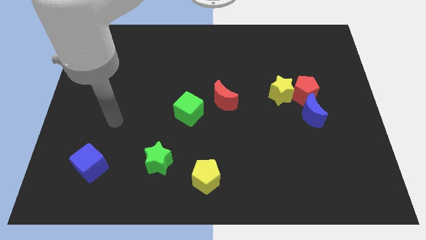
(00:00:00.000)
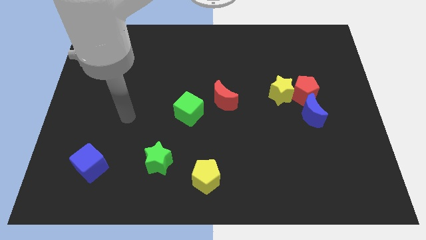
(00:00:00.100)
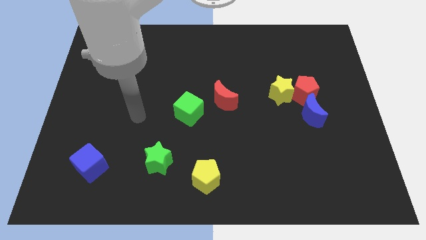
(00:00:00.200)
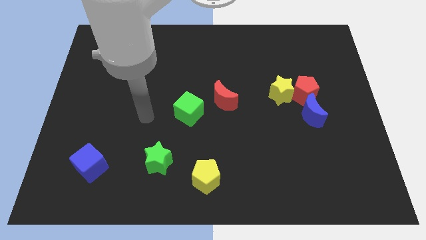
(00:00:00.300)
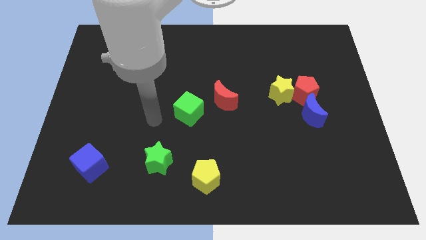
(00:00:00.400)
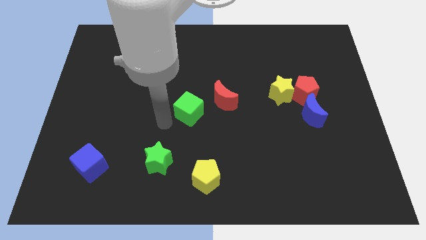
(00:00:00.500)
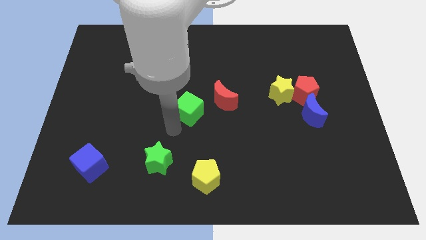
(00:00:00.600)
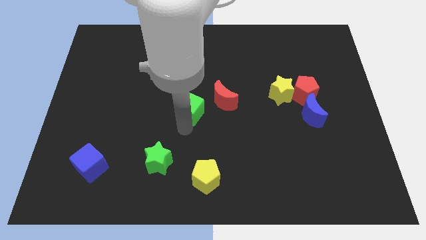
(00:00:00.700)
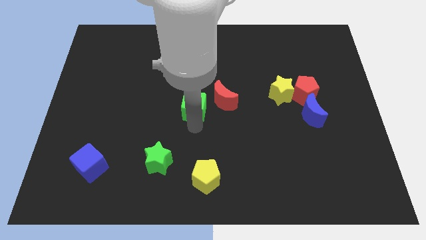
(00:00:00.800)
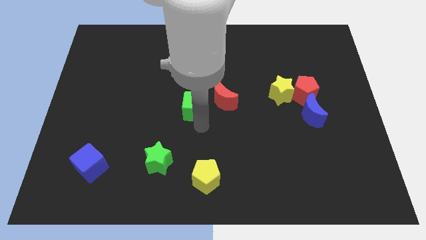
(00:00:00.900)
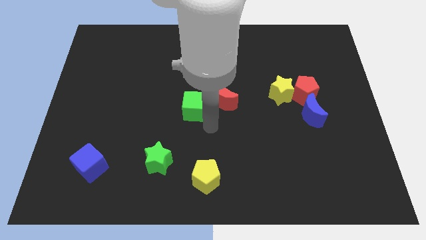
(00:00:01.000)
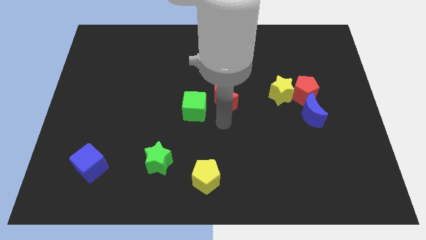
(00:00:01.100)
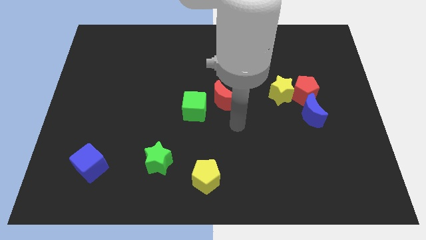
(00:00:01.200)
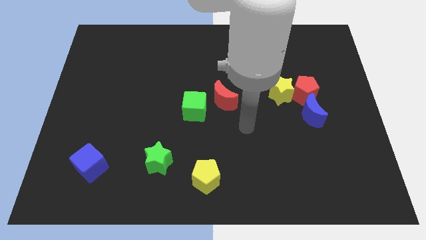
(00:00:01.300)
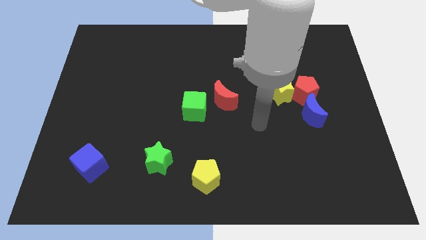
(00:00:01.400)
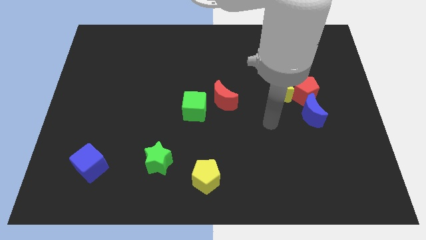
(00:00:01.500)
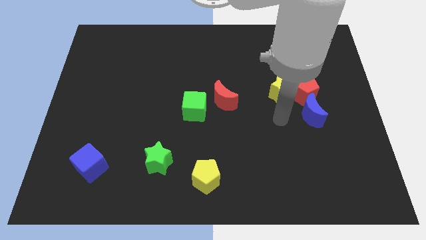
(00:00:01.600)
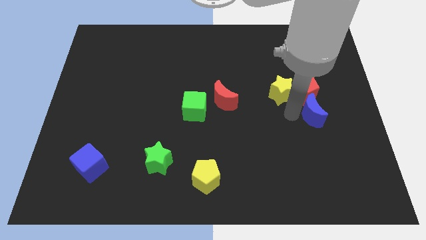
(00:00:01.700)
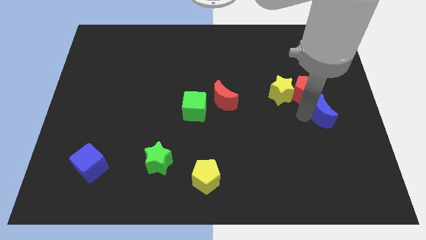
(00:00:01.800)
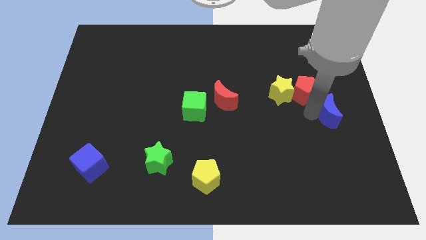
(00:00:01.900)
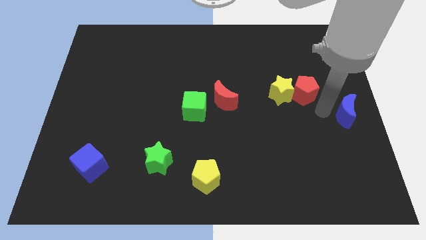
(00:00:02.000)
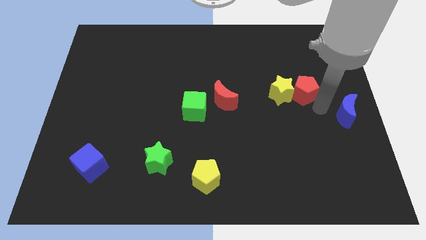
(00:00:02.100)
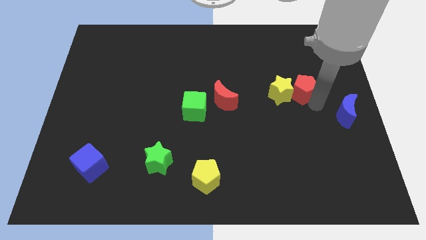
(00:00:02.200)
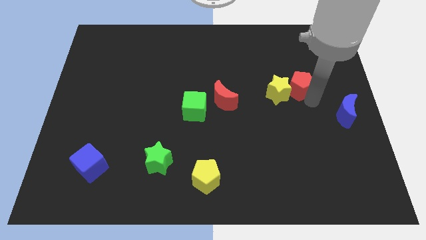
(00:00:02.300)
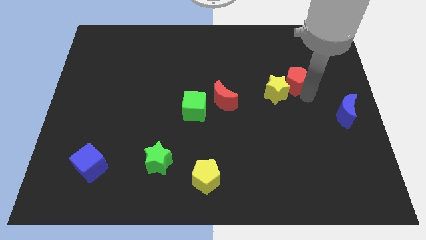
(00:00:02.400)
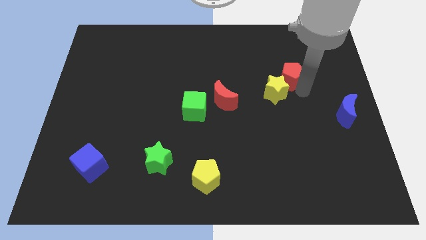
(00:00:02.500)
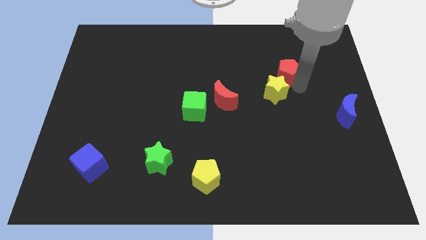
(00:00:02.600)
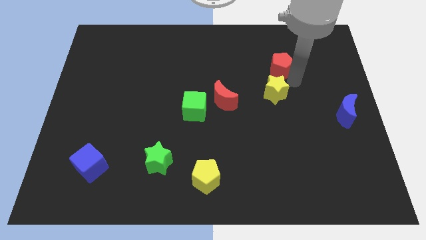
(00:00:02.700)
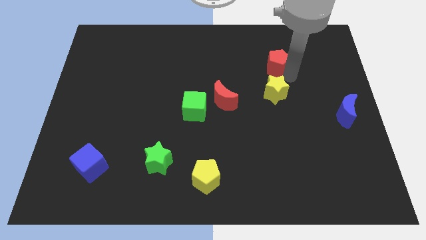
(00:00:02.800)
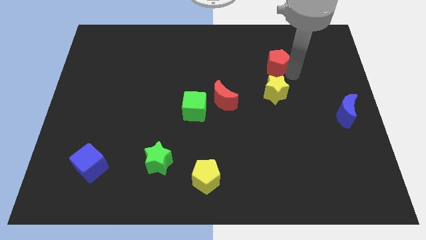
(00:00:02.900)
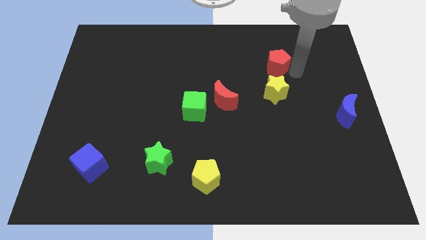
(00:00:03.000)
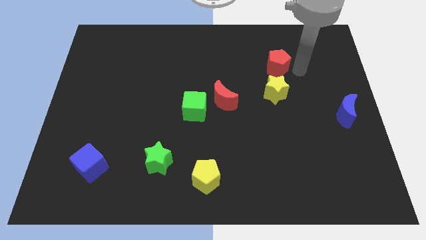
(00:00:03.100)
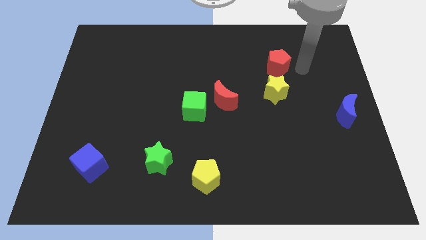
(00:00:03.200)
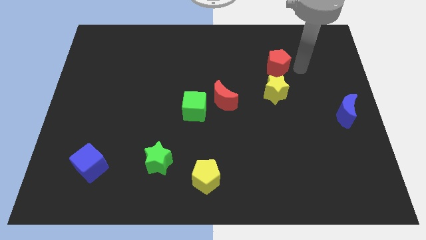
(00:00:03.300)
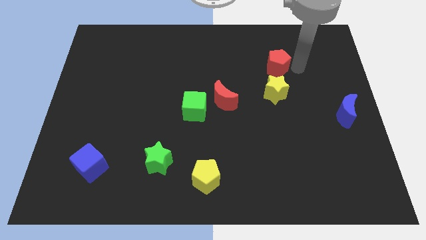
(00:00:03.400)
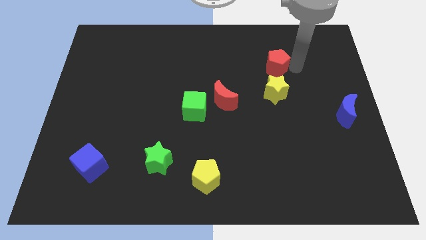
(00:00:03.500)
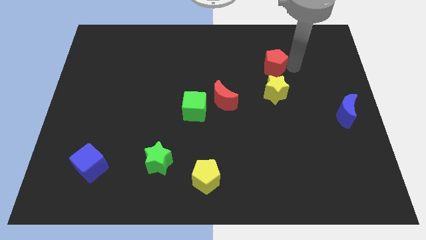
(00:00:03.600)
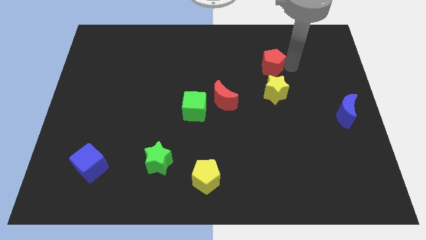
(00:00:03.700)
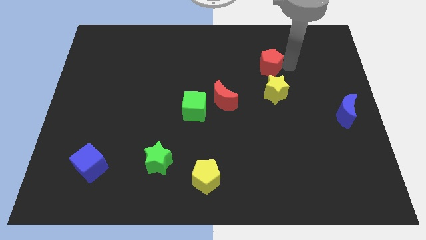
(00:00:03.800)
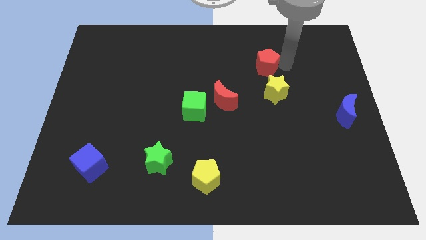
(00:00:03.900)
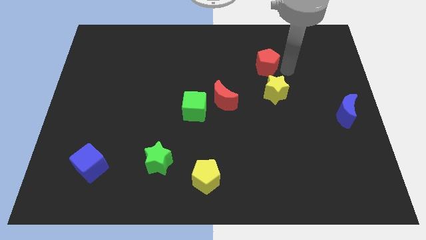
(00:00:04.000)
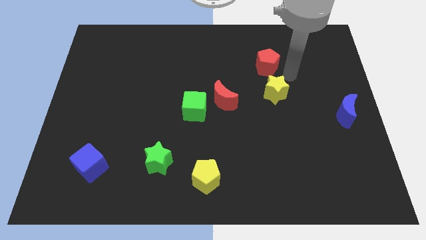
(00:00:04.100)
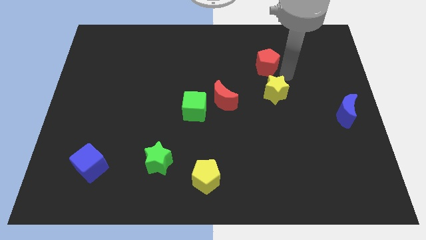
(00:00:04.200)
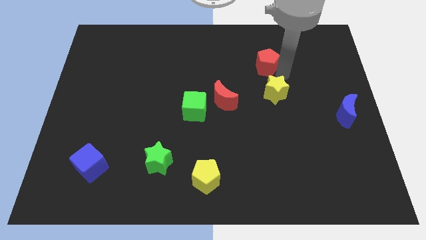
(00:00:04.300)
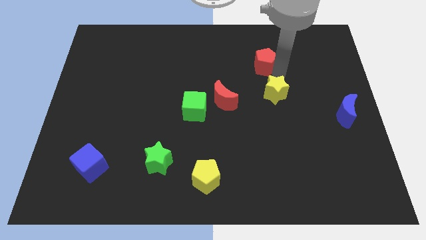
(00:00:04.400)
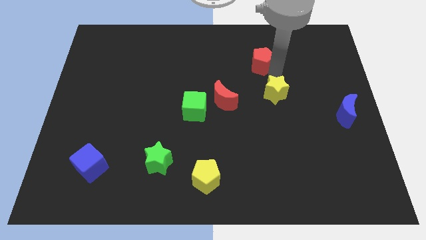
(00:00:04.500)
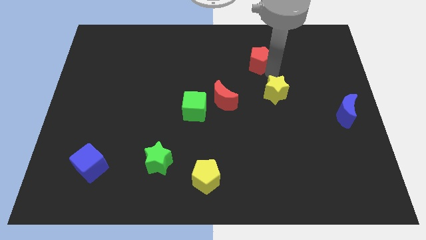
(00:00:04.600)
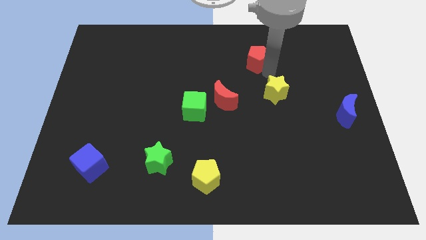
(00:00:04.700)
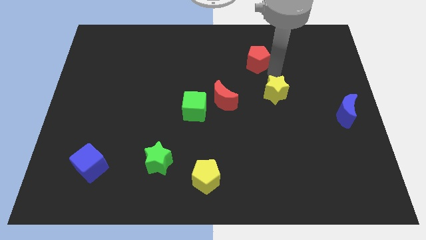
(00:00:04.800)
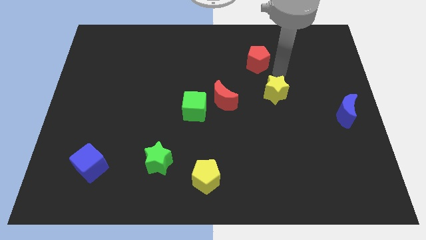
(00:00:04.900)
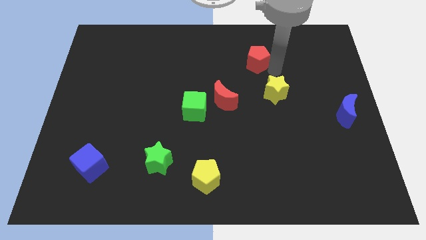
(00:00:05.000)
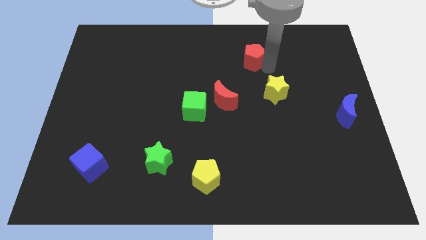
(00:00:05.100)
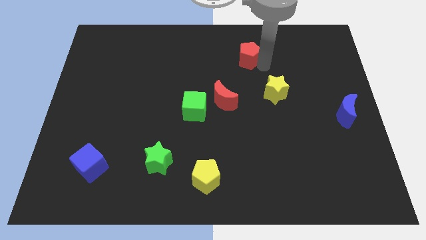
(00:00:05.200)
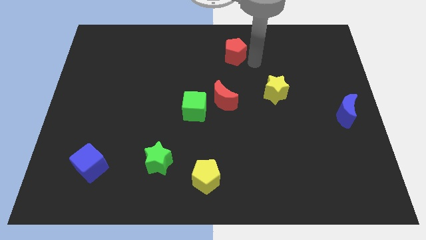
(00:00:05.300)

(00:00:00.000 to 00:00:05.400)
push the red pentagon to the top side
